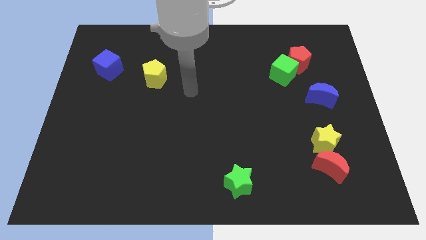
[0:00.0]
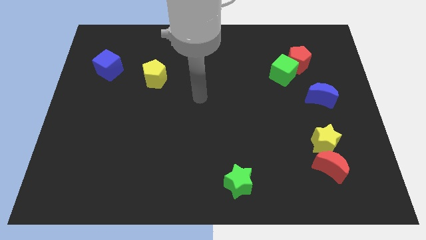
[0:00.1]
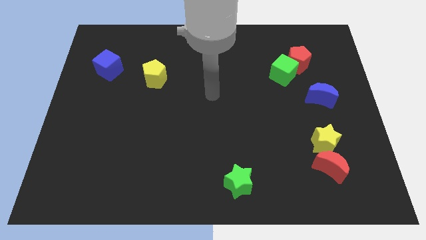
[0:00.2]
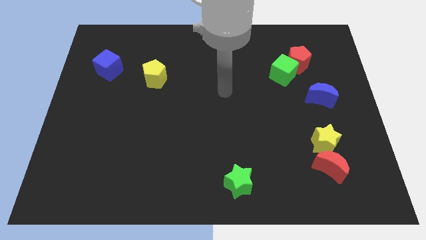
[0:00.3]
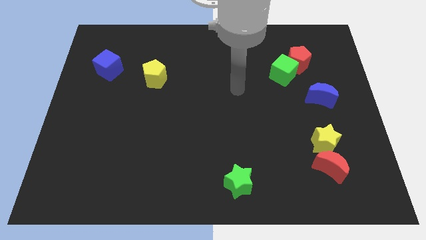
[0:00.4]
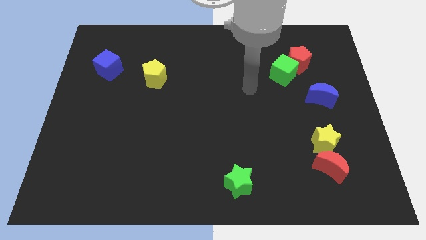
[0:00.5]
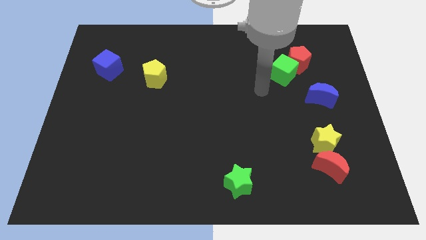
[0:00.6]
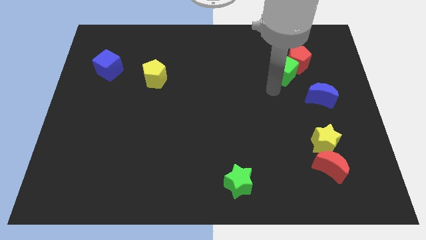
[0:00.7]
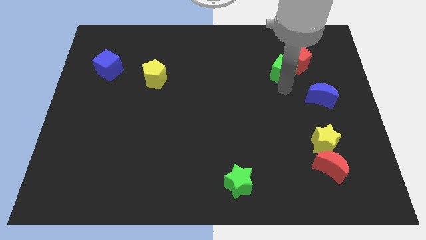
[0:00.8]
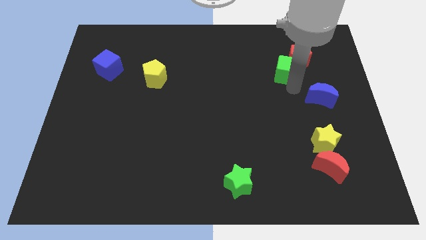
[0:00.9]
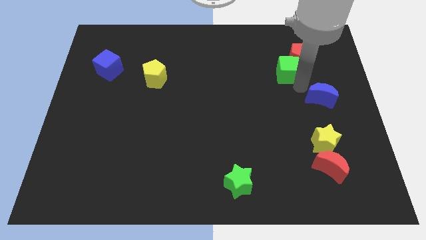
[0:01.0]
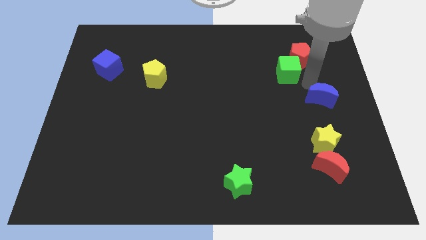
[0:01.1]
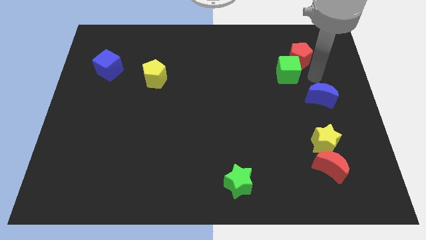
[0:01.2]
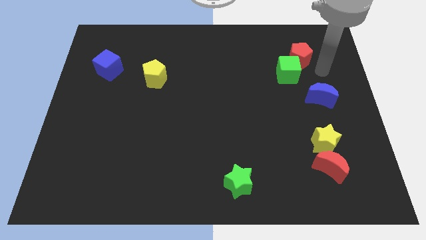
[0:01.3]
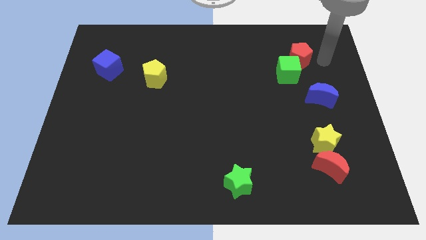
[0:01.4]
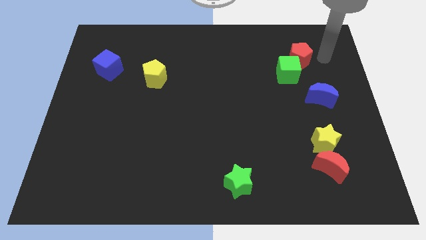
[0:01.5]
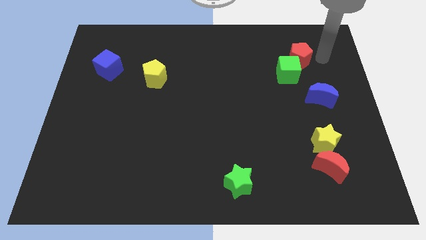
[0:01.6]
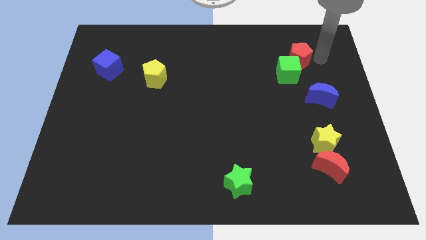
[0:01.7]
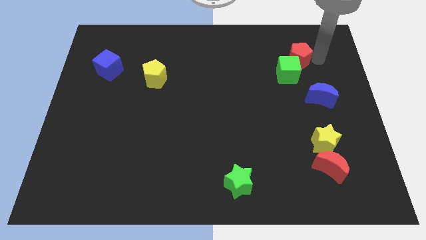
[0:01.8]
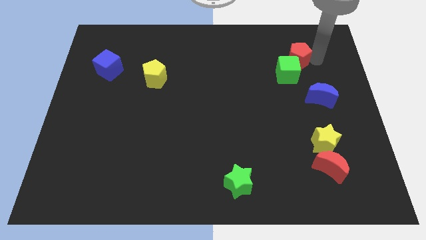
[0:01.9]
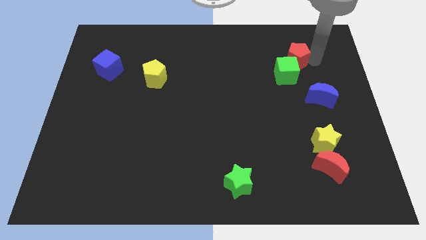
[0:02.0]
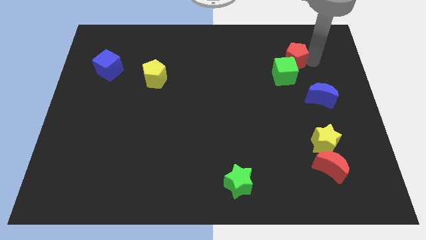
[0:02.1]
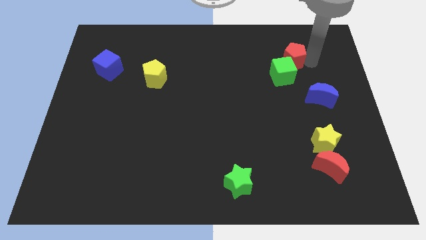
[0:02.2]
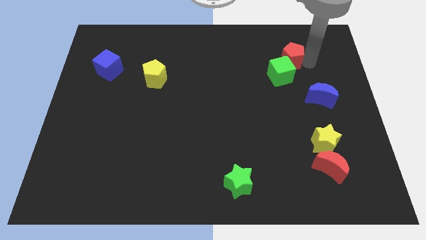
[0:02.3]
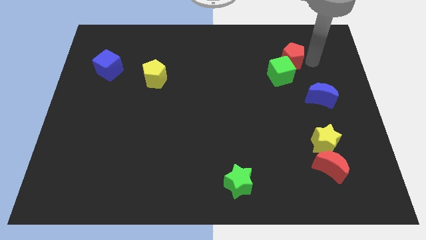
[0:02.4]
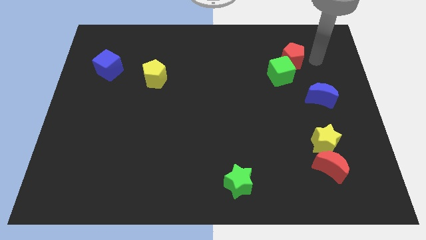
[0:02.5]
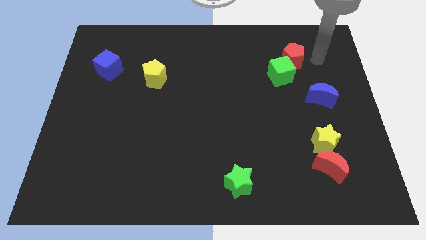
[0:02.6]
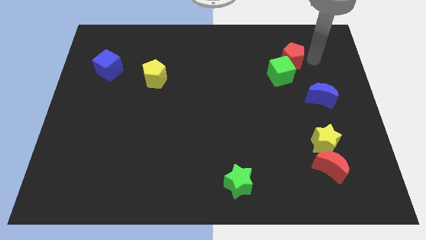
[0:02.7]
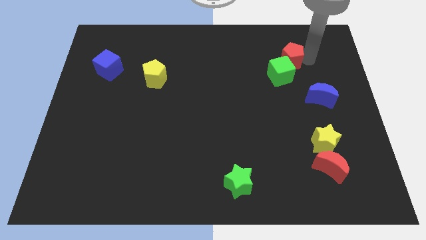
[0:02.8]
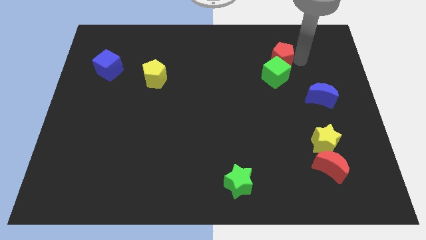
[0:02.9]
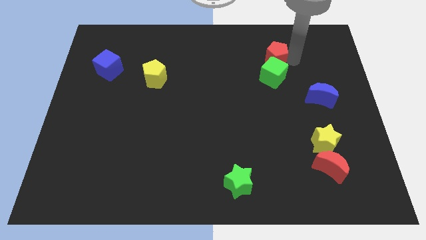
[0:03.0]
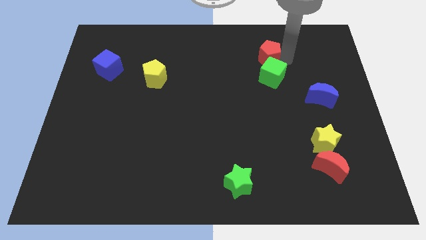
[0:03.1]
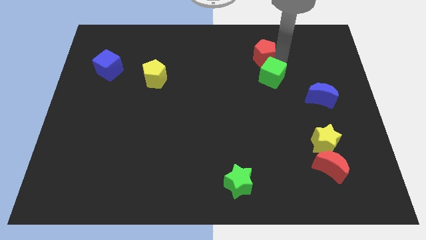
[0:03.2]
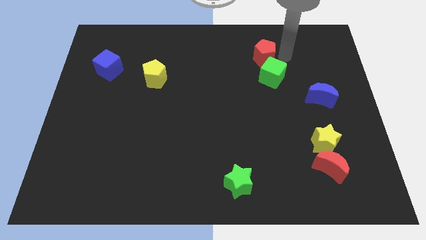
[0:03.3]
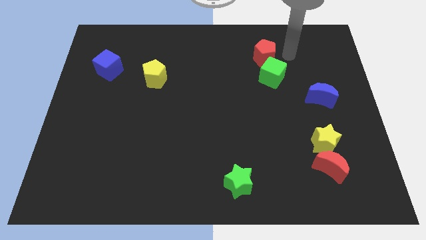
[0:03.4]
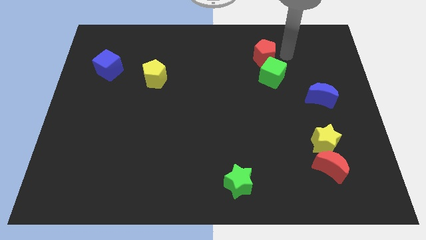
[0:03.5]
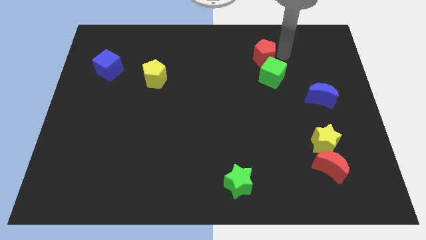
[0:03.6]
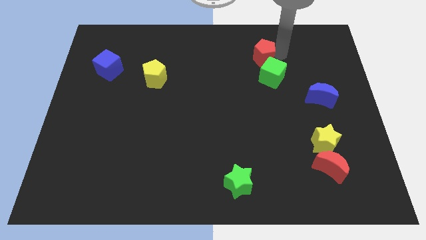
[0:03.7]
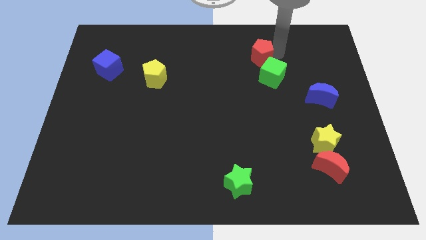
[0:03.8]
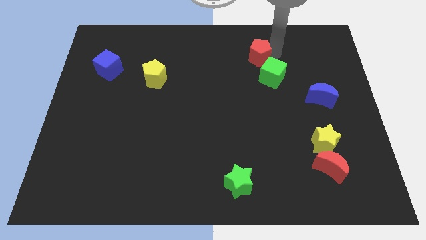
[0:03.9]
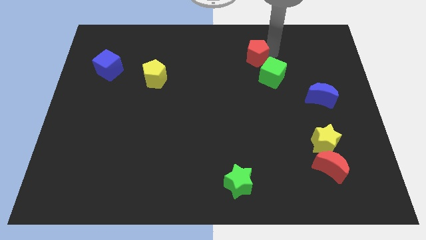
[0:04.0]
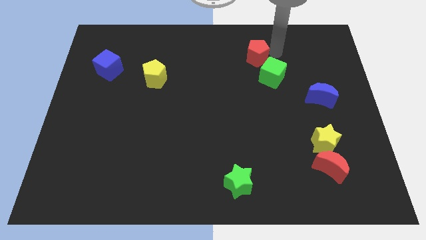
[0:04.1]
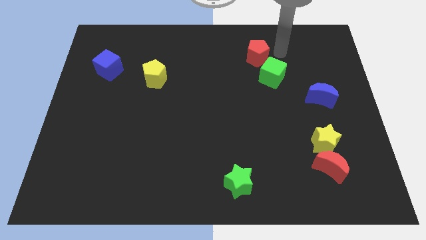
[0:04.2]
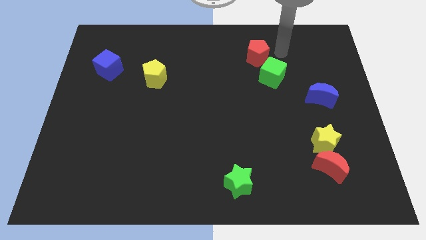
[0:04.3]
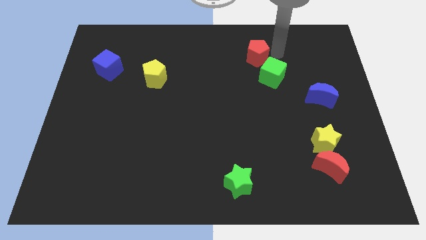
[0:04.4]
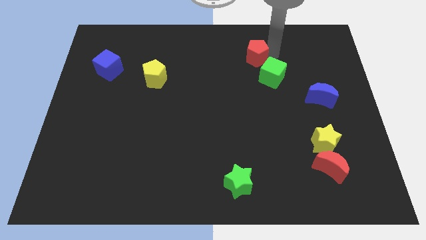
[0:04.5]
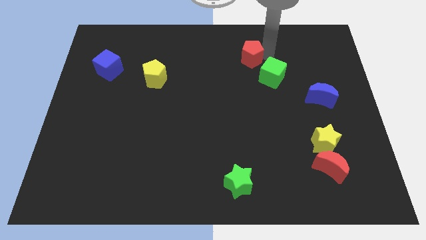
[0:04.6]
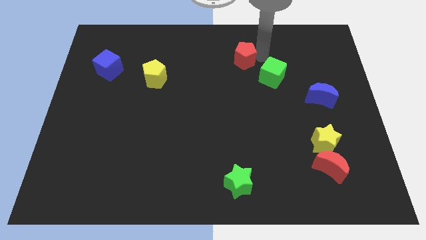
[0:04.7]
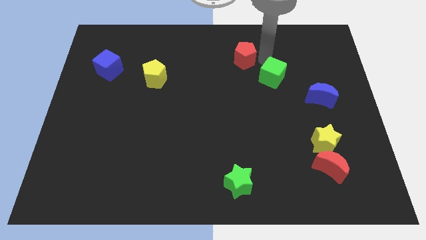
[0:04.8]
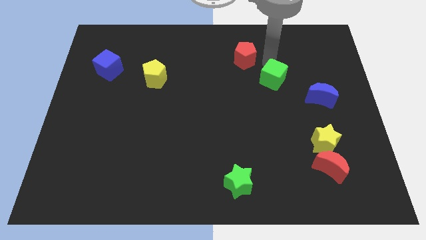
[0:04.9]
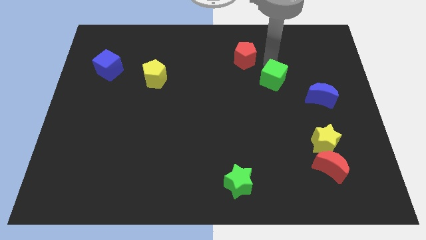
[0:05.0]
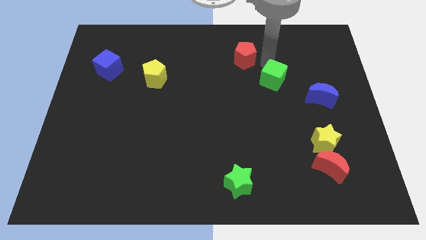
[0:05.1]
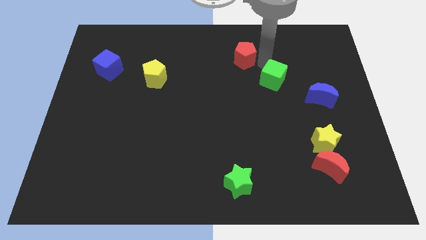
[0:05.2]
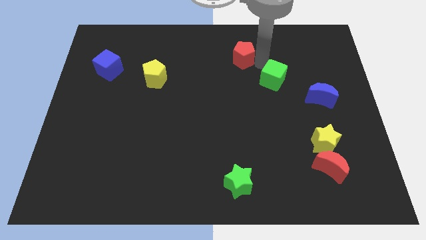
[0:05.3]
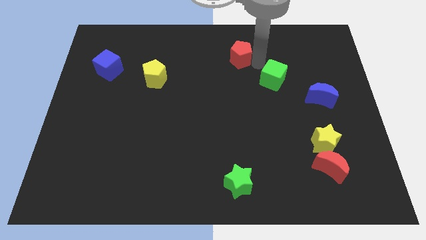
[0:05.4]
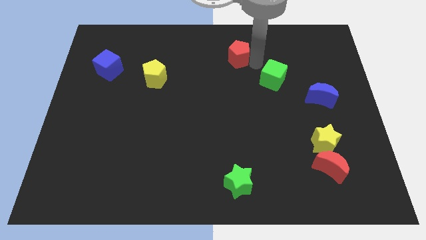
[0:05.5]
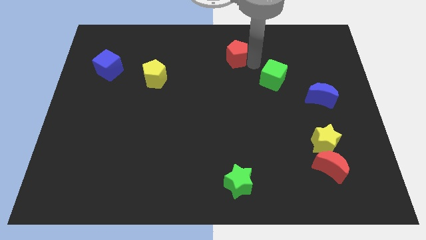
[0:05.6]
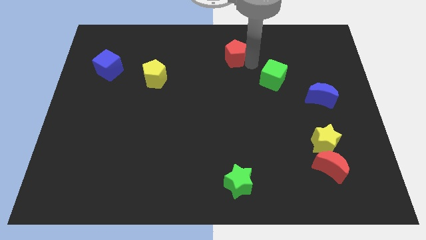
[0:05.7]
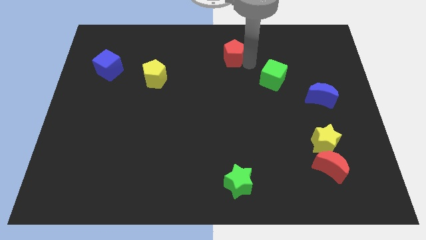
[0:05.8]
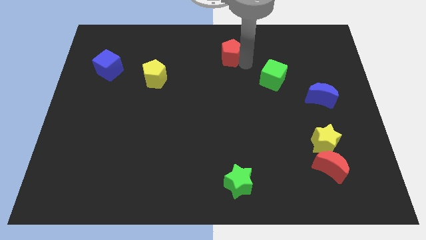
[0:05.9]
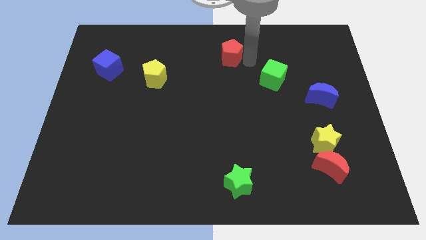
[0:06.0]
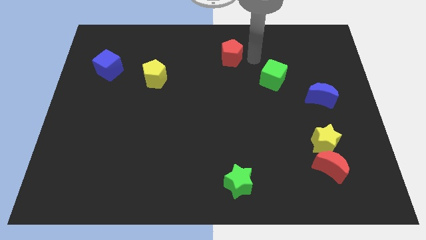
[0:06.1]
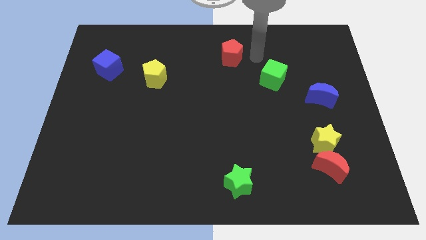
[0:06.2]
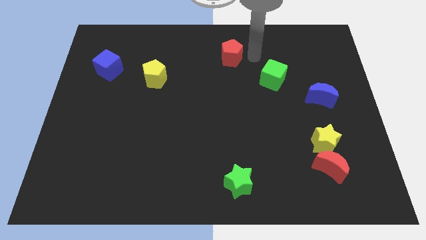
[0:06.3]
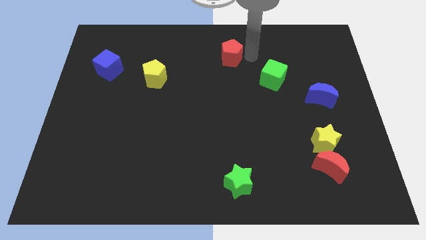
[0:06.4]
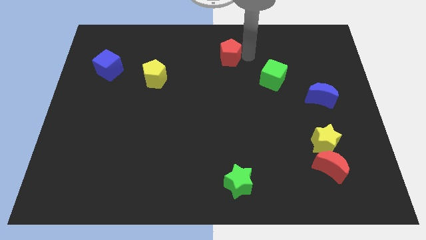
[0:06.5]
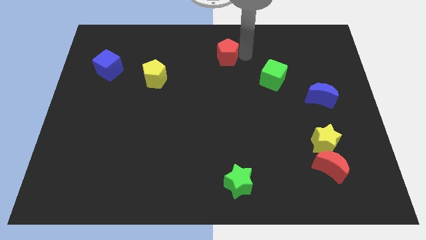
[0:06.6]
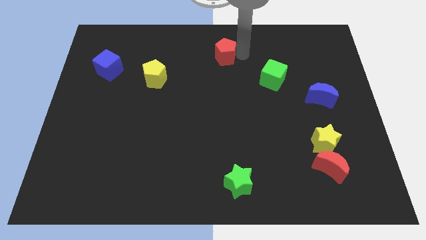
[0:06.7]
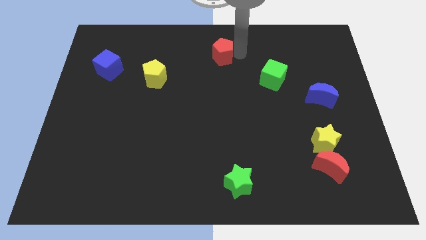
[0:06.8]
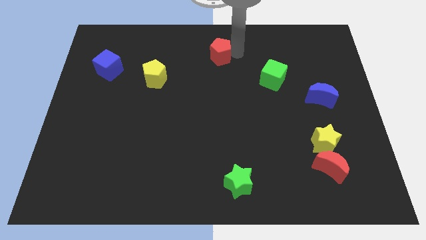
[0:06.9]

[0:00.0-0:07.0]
move the red pentagon left

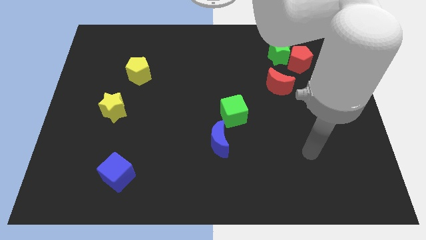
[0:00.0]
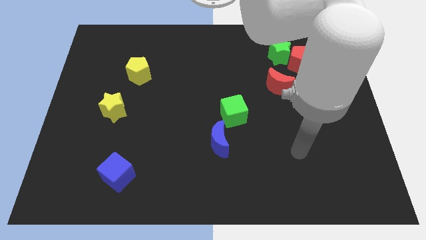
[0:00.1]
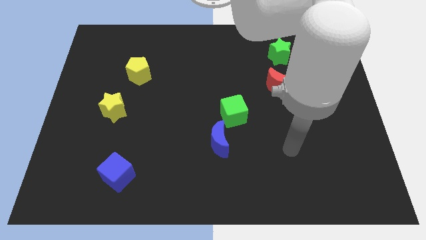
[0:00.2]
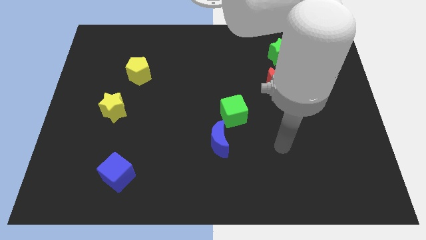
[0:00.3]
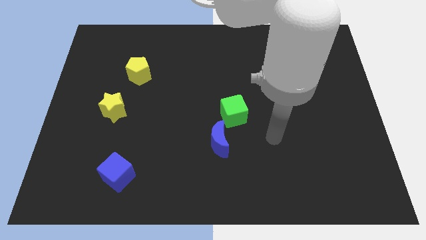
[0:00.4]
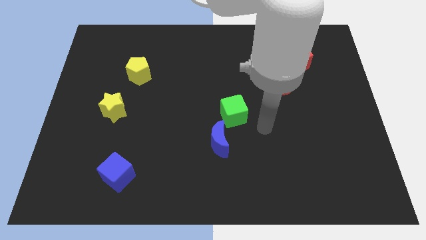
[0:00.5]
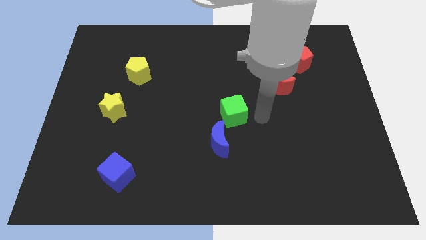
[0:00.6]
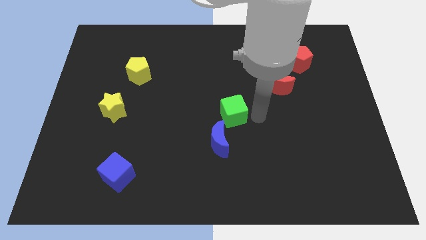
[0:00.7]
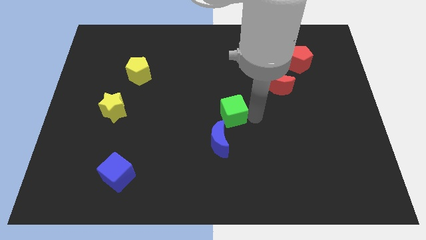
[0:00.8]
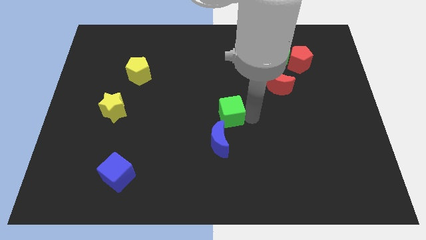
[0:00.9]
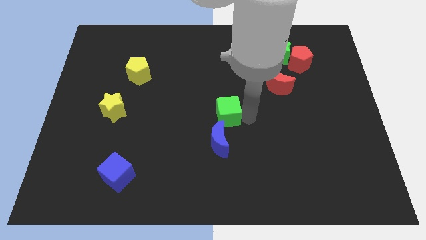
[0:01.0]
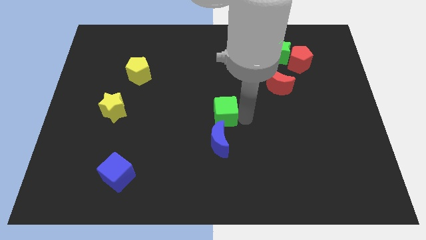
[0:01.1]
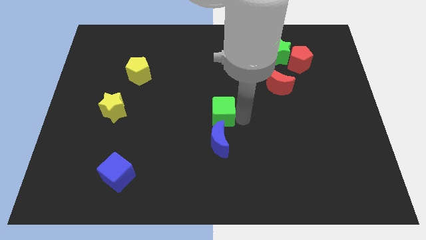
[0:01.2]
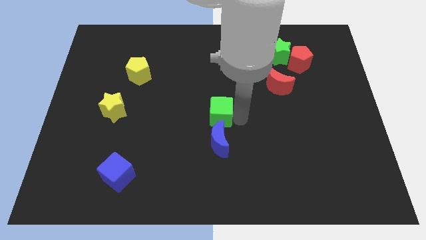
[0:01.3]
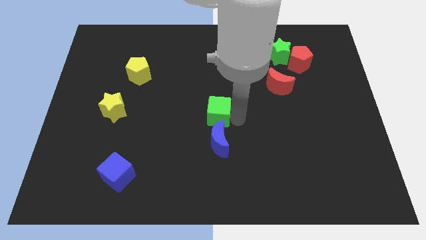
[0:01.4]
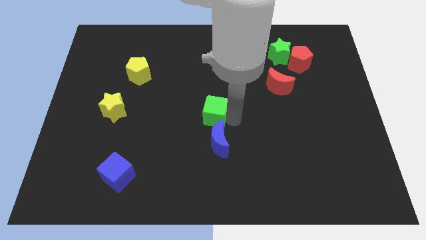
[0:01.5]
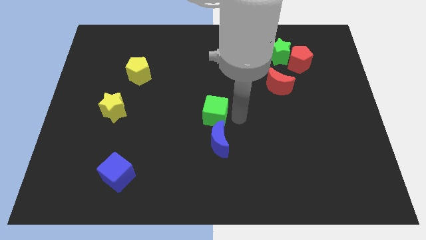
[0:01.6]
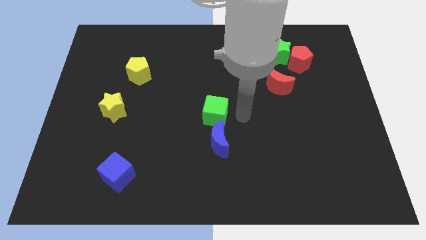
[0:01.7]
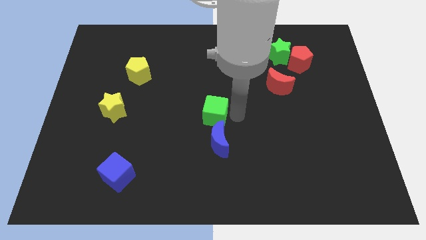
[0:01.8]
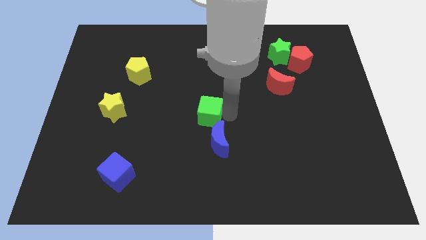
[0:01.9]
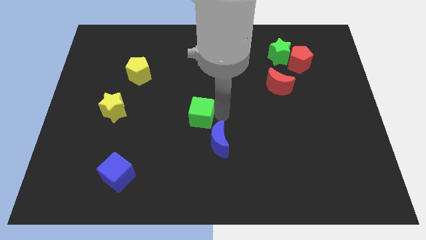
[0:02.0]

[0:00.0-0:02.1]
push the green cube a bit left
